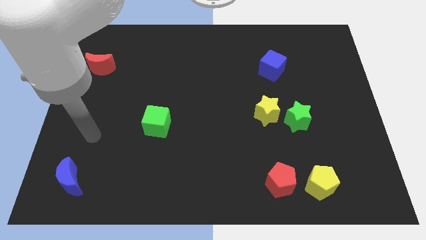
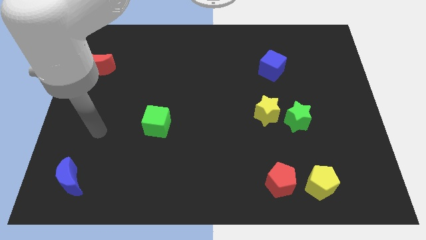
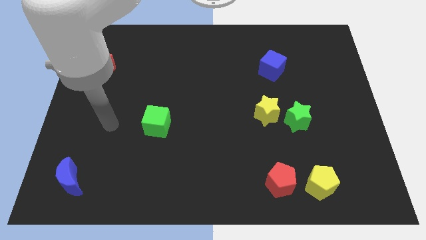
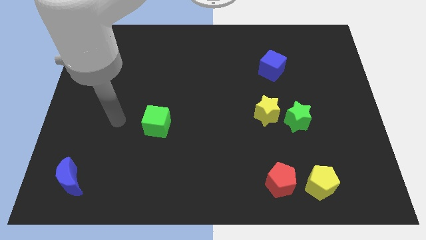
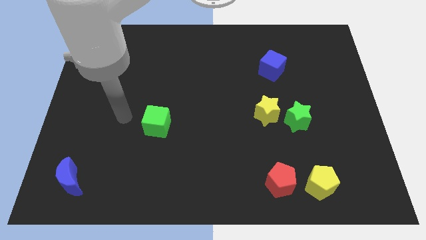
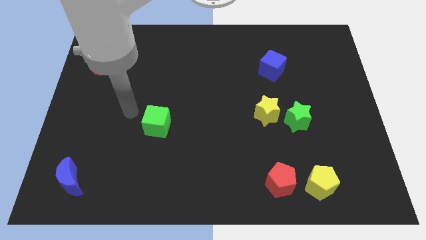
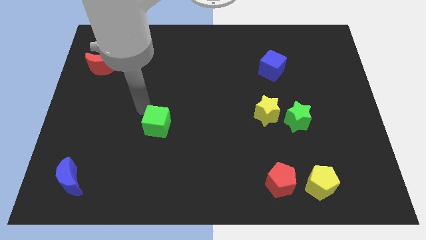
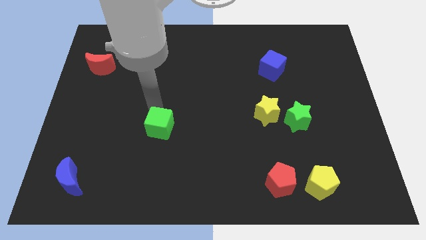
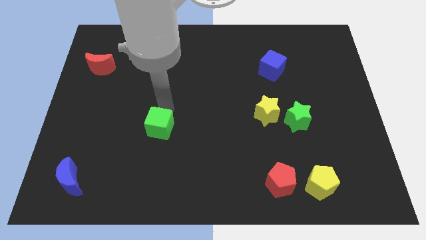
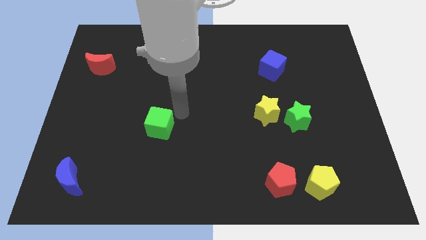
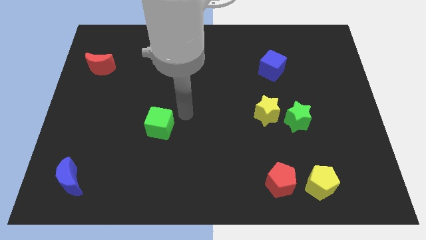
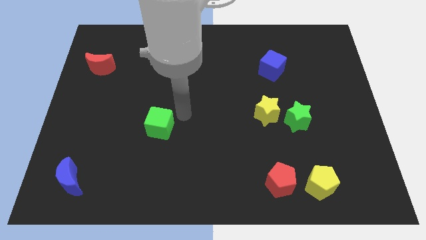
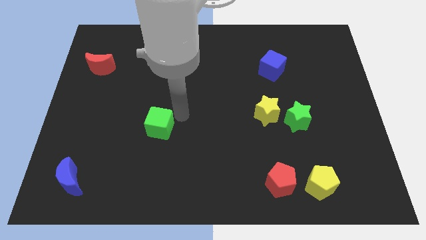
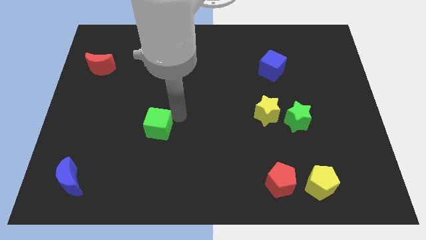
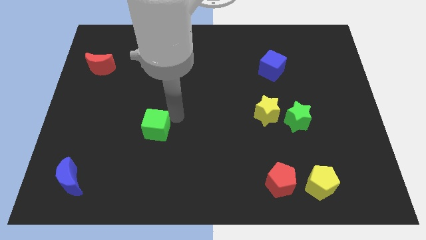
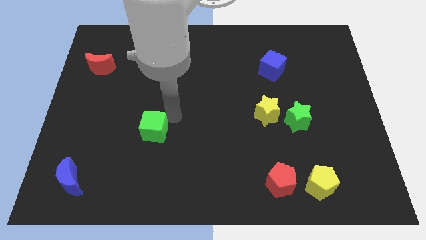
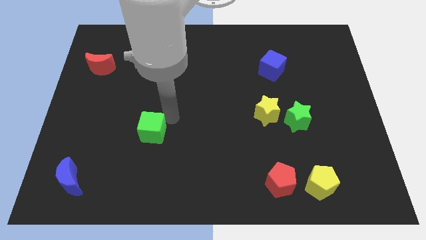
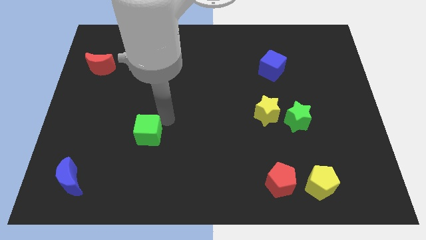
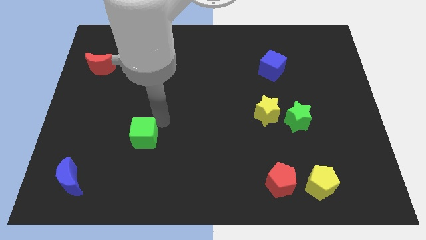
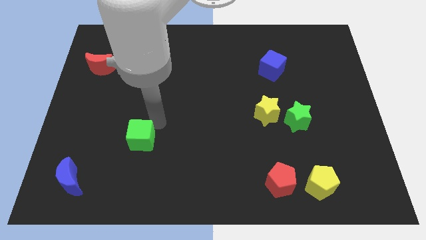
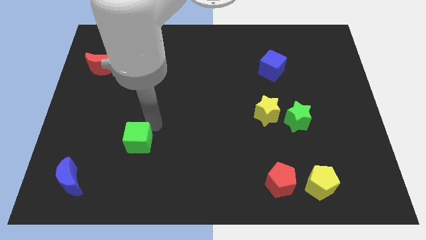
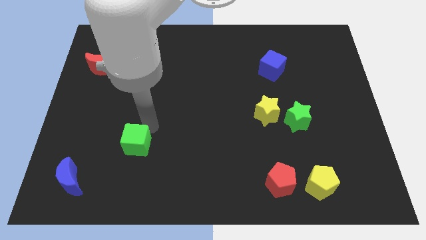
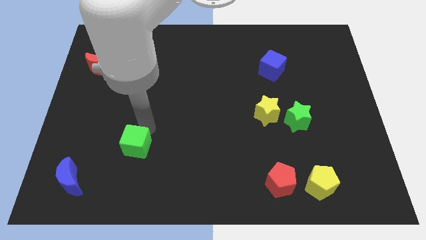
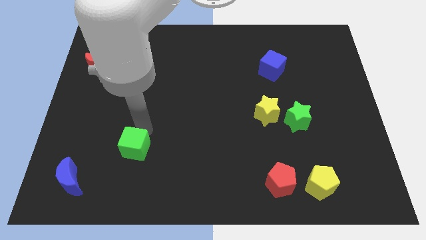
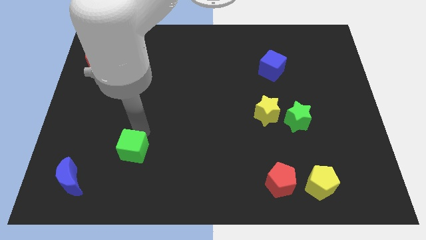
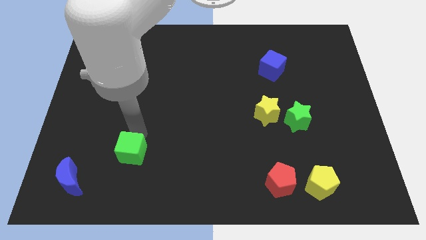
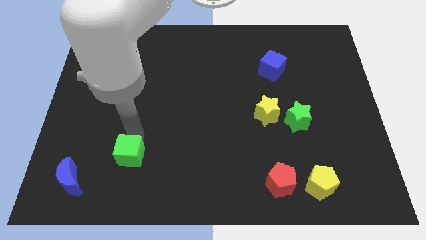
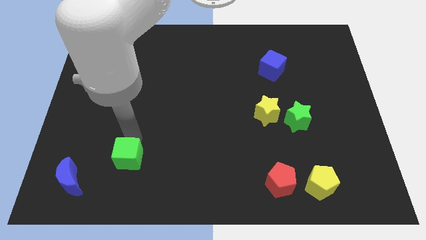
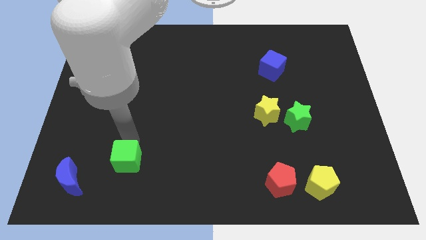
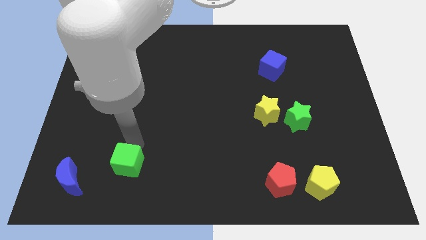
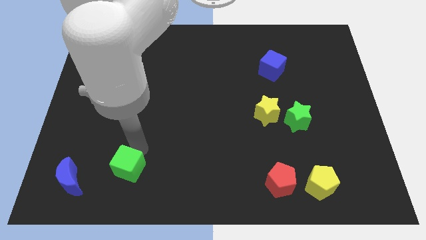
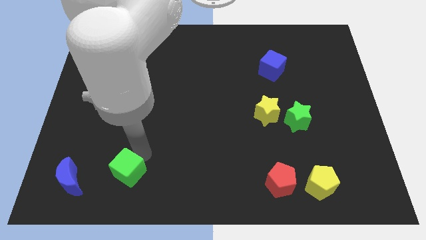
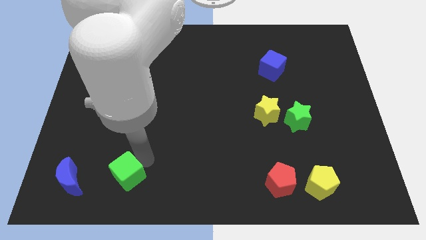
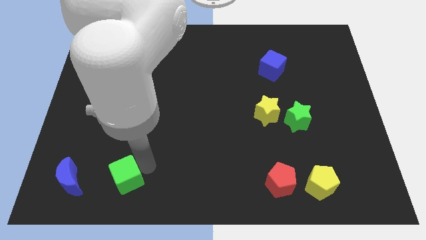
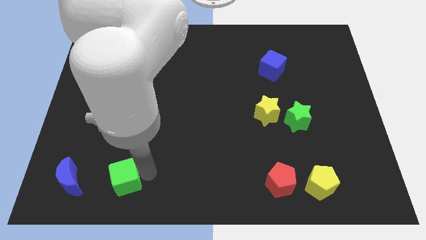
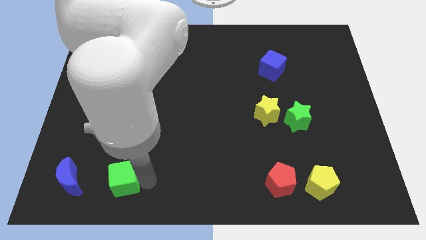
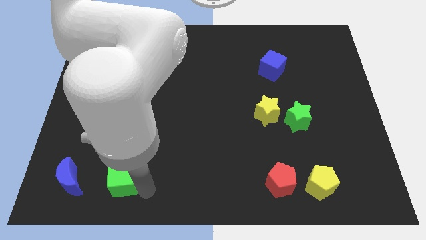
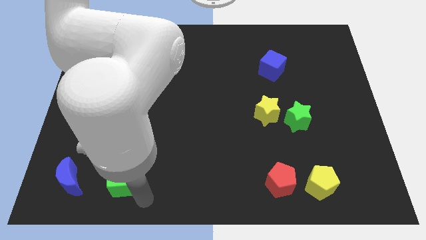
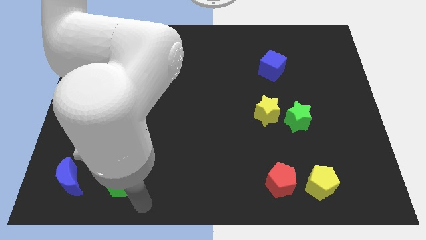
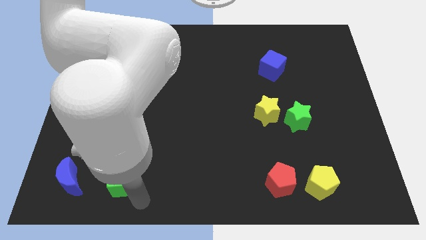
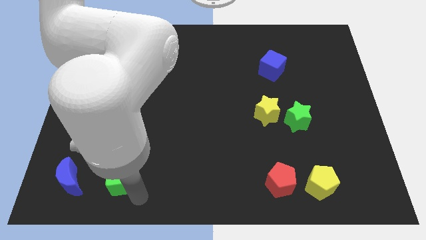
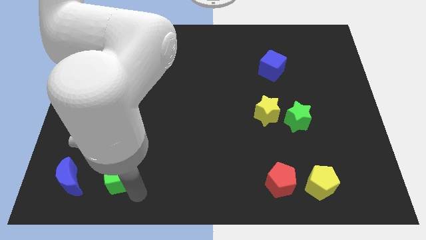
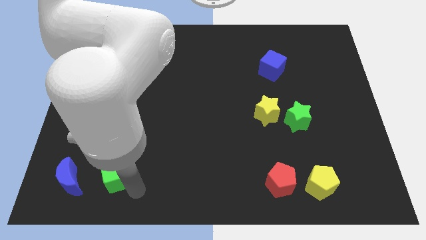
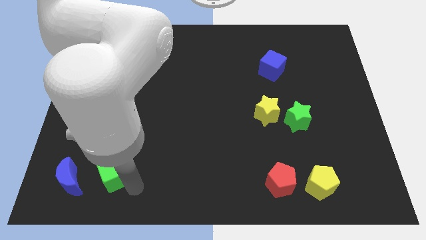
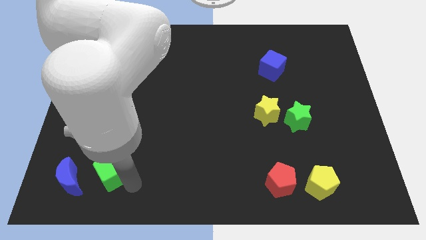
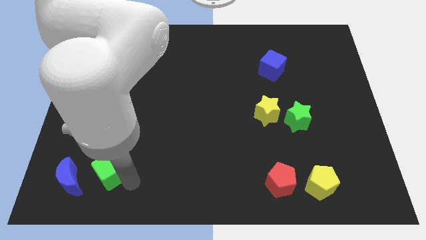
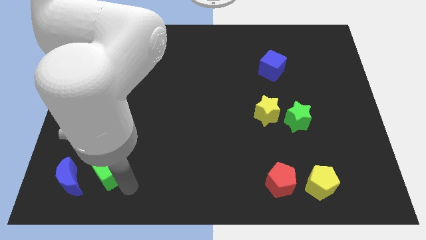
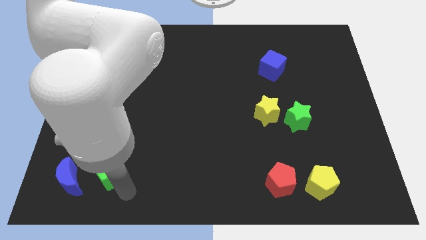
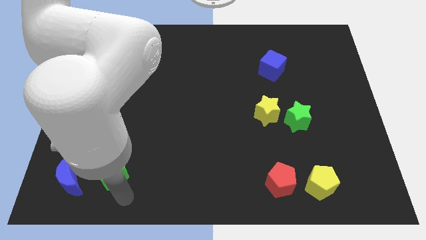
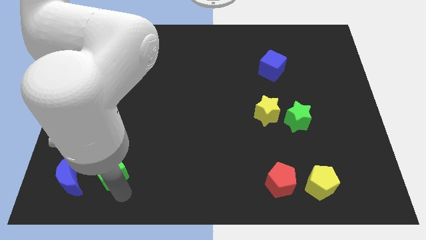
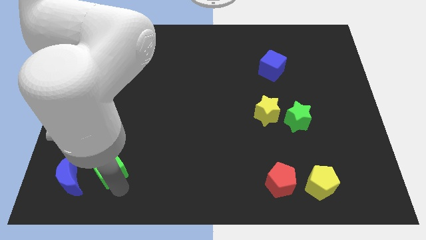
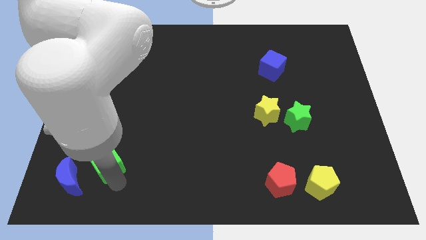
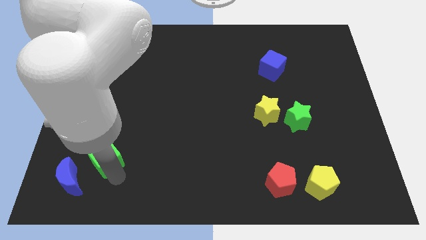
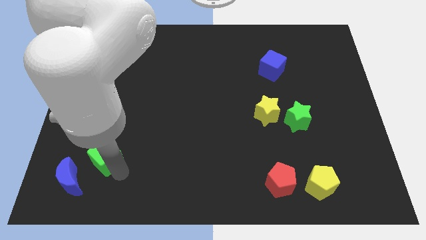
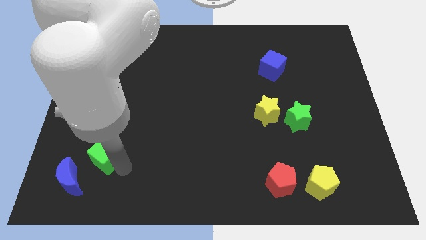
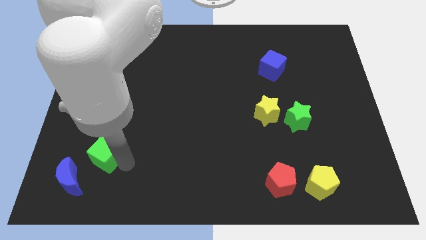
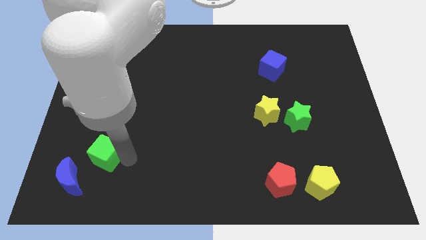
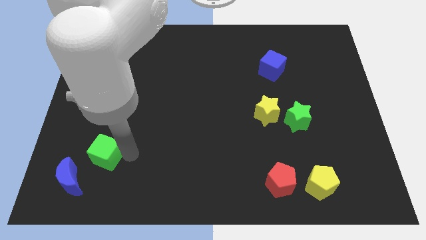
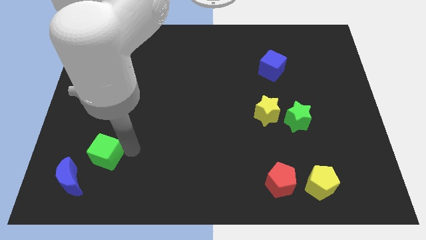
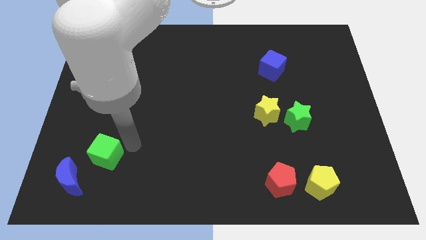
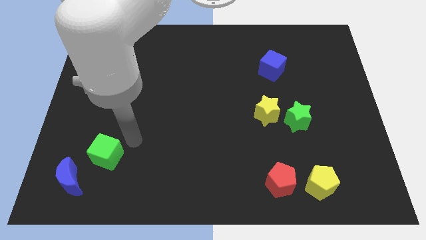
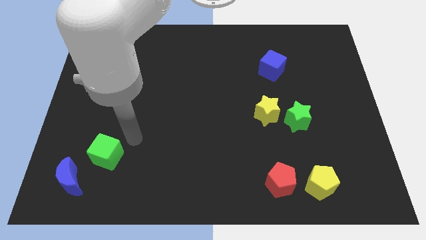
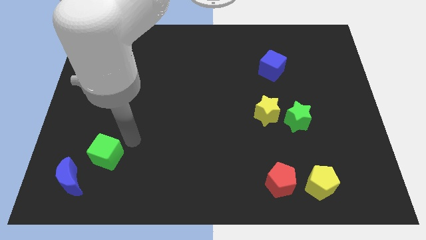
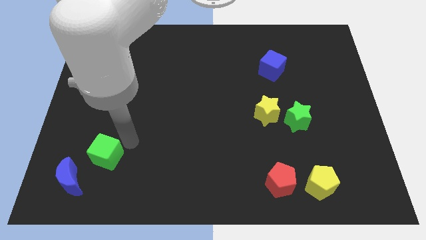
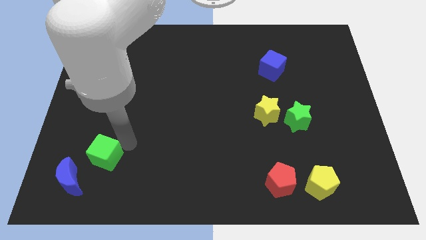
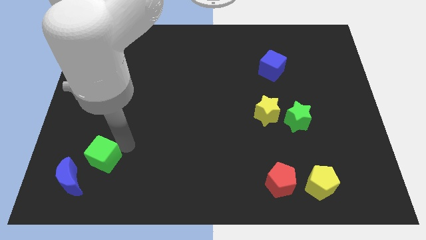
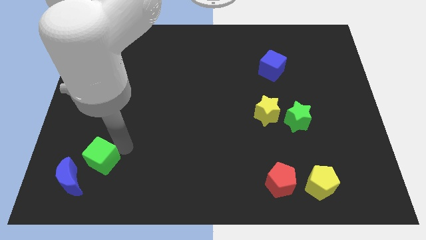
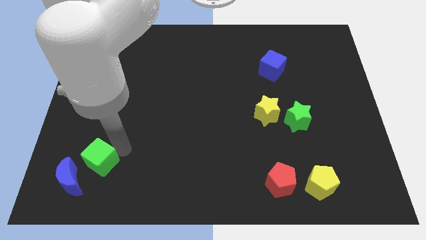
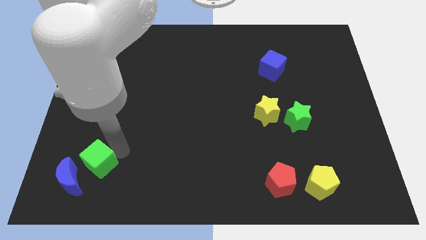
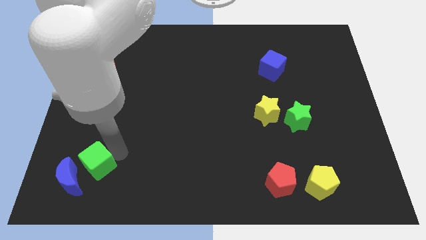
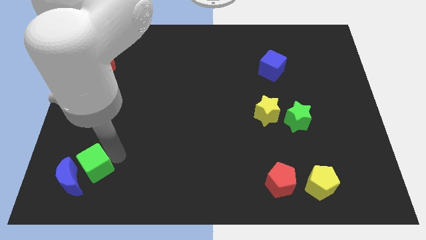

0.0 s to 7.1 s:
push the green cube to the blue moon
